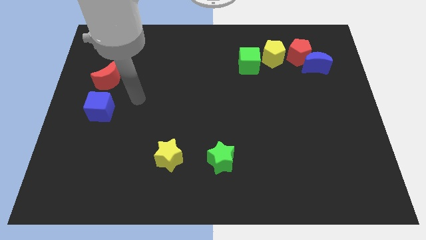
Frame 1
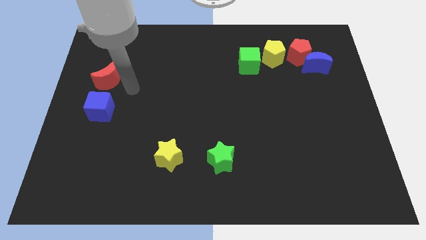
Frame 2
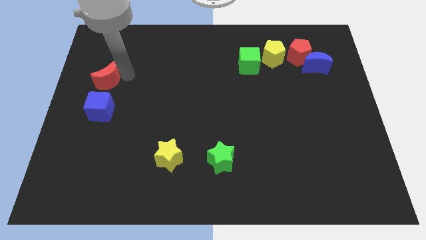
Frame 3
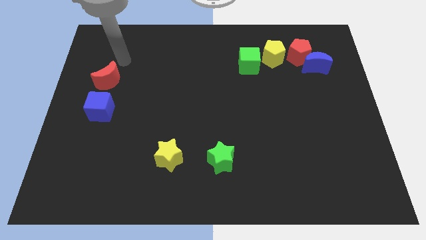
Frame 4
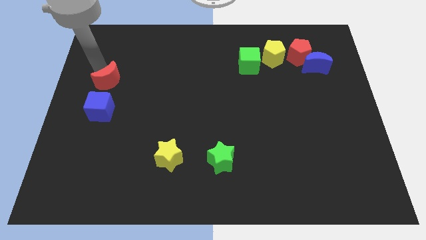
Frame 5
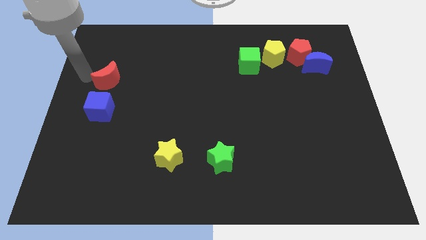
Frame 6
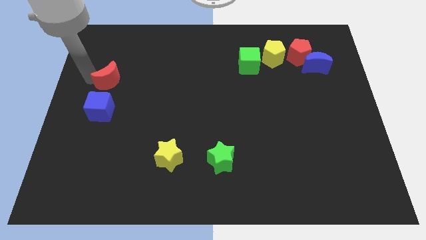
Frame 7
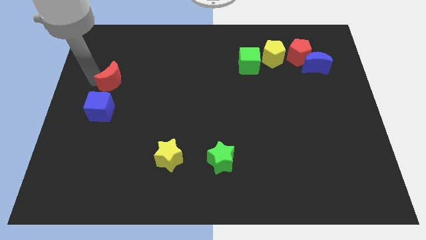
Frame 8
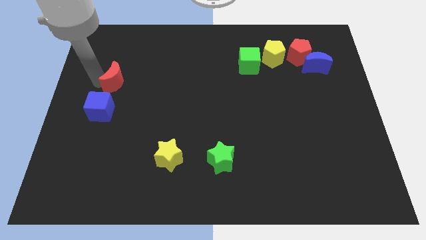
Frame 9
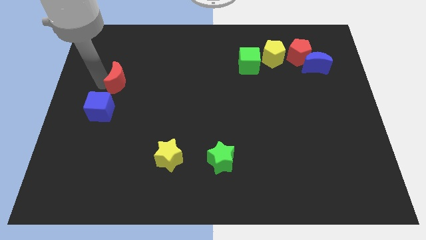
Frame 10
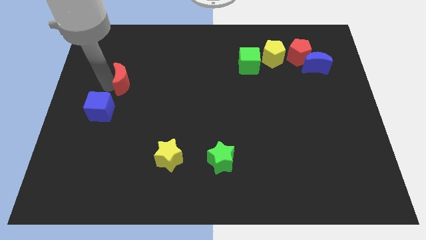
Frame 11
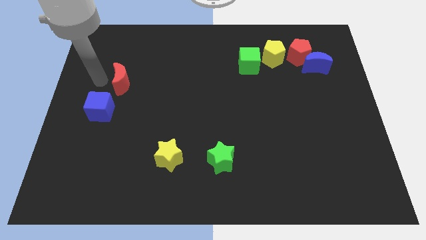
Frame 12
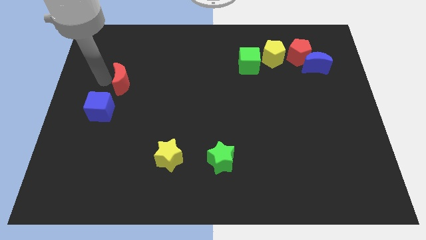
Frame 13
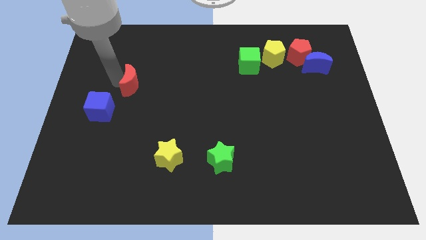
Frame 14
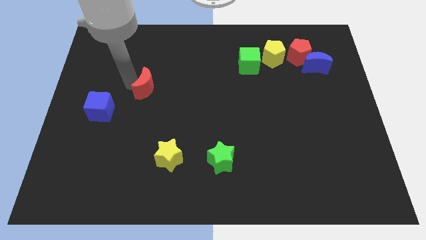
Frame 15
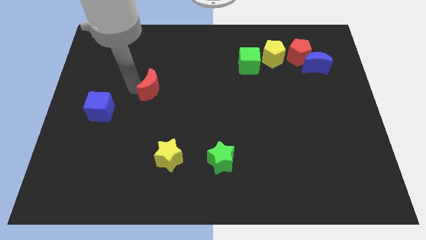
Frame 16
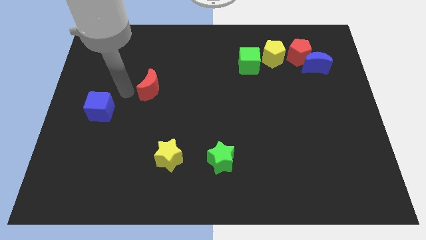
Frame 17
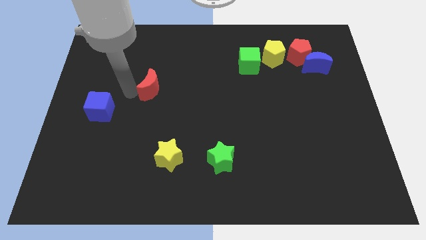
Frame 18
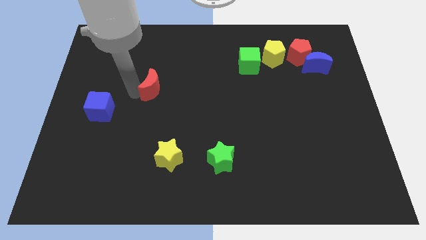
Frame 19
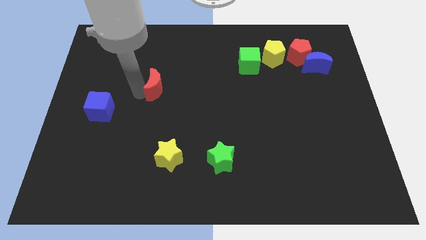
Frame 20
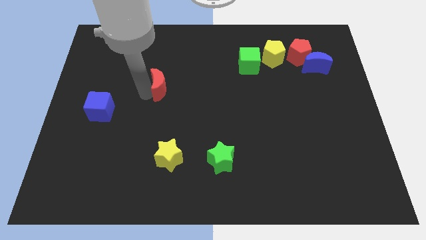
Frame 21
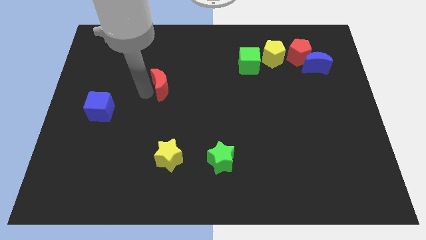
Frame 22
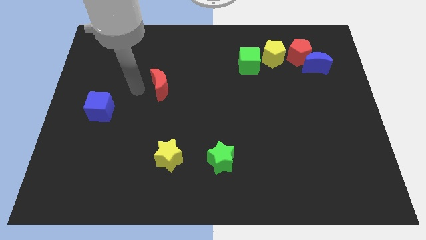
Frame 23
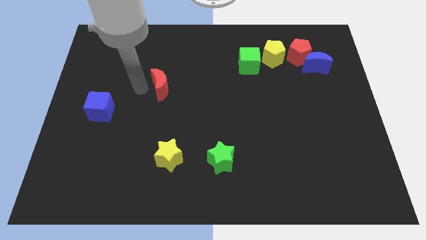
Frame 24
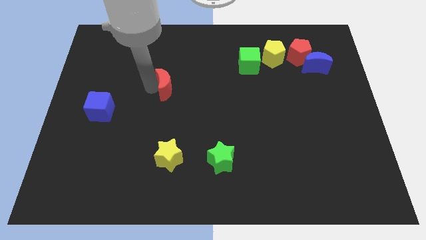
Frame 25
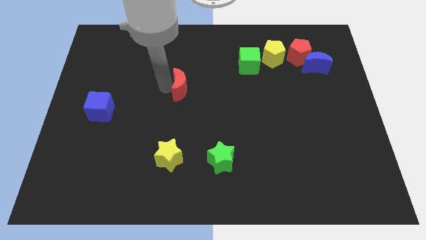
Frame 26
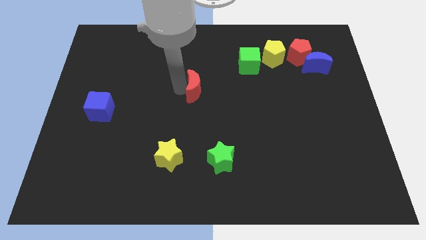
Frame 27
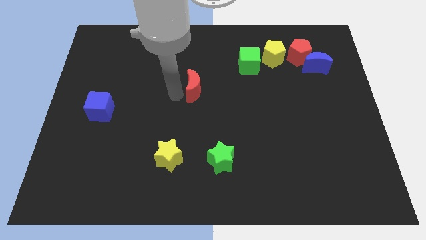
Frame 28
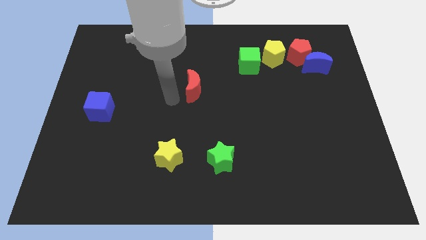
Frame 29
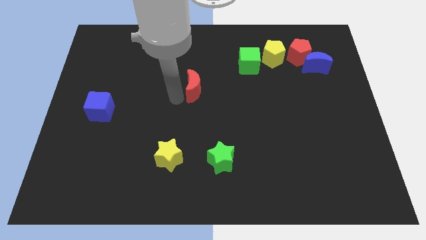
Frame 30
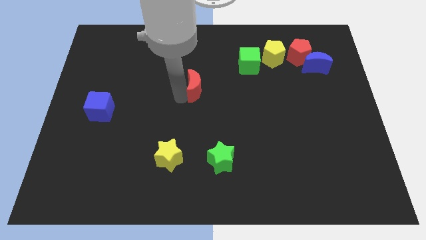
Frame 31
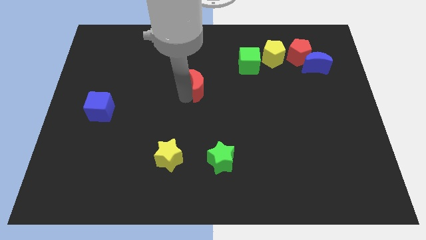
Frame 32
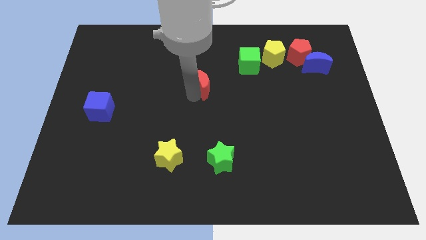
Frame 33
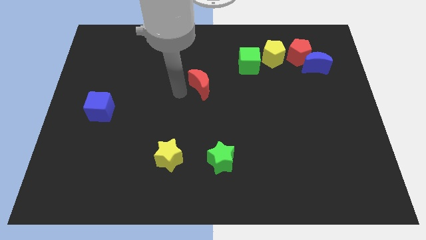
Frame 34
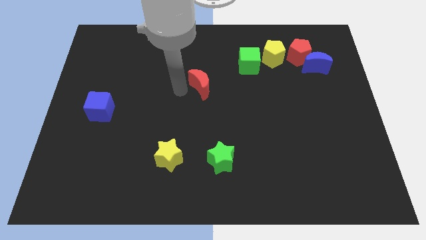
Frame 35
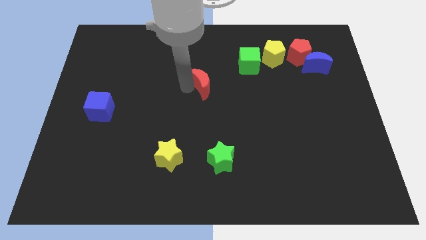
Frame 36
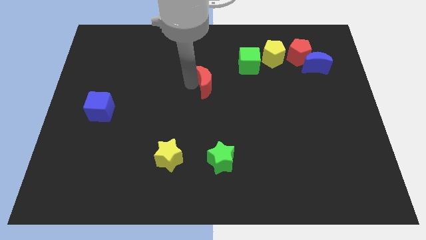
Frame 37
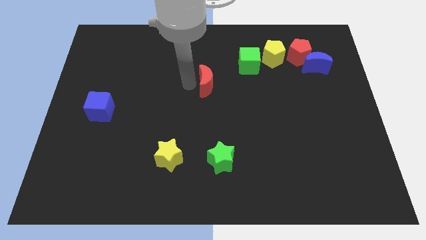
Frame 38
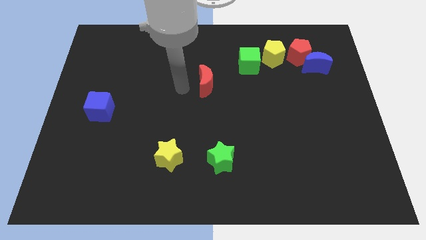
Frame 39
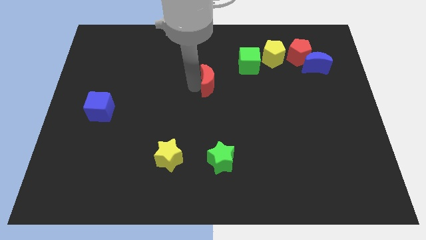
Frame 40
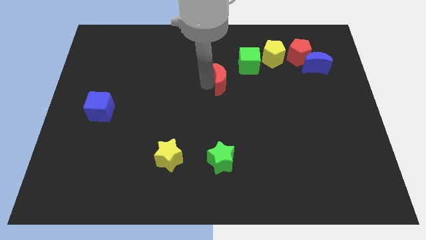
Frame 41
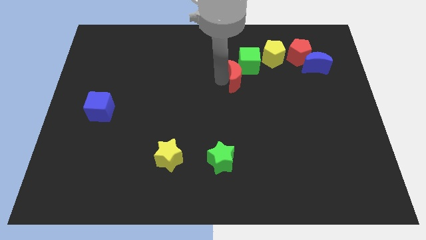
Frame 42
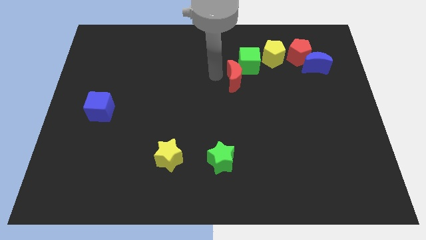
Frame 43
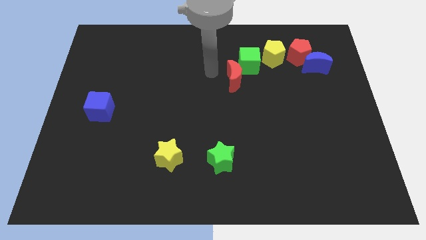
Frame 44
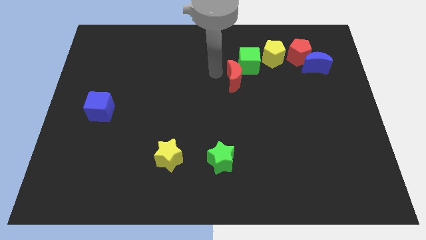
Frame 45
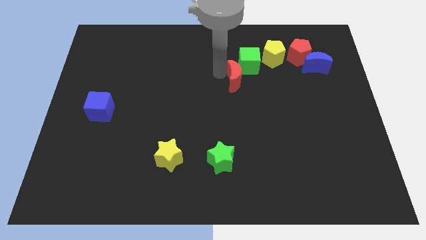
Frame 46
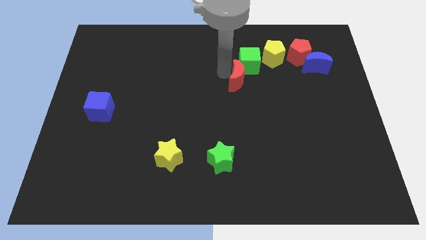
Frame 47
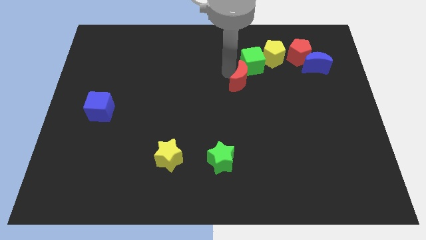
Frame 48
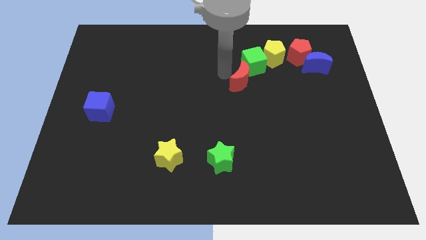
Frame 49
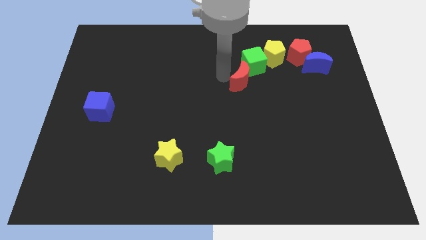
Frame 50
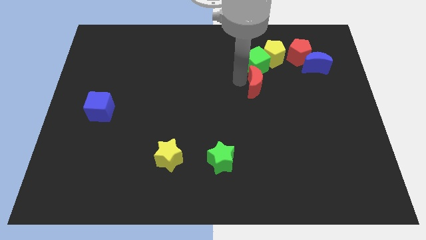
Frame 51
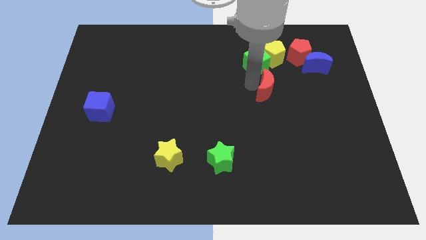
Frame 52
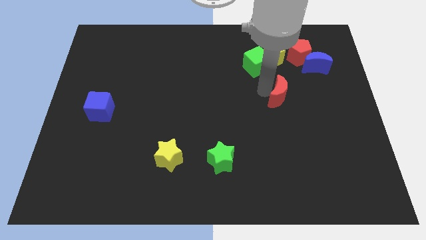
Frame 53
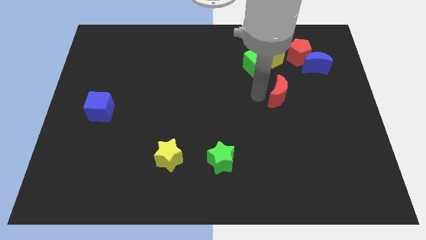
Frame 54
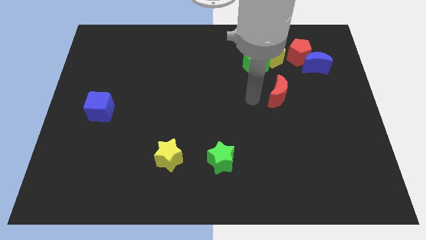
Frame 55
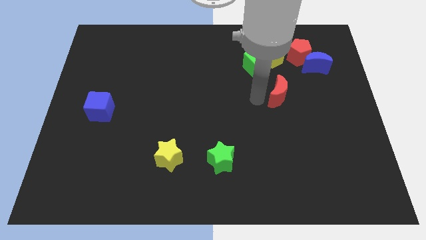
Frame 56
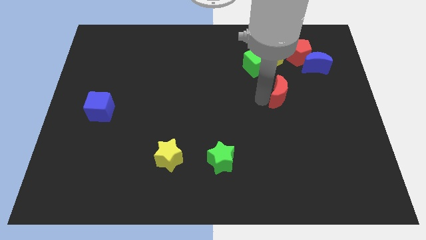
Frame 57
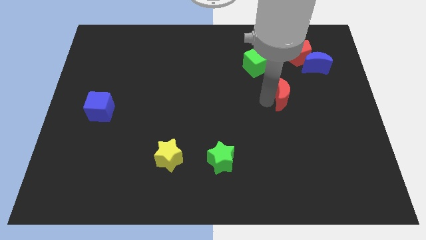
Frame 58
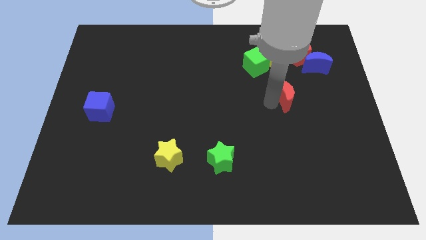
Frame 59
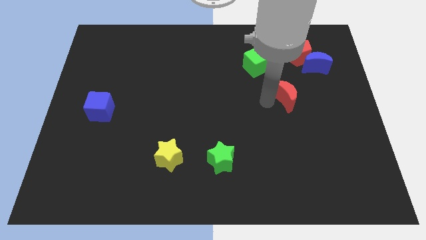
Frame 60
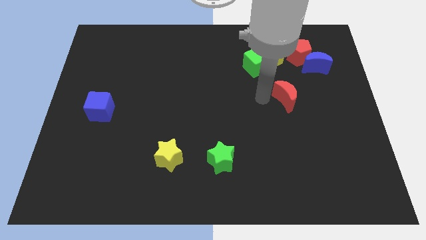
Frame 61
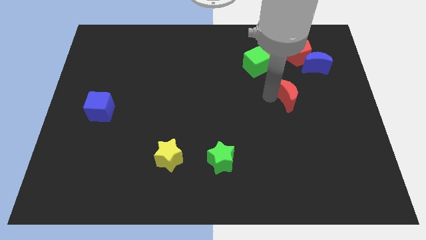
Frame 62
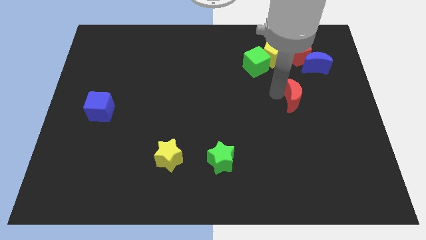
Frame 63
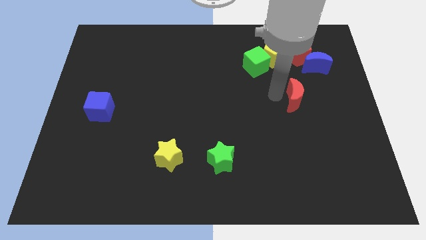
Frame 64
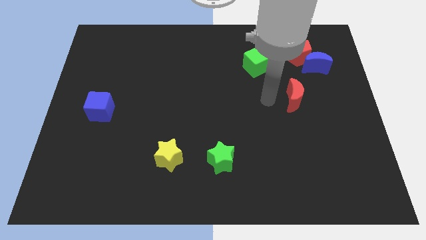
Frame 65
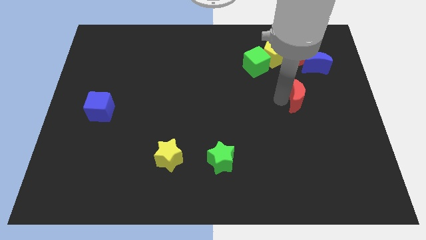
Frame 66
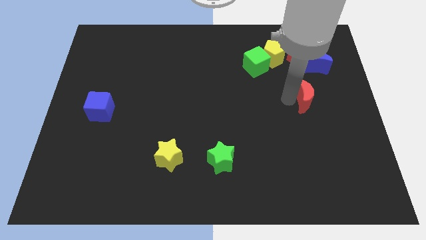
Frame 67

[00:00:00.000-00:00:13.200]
push the red moon to the bottom side of the blue moon
